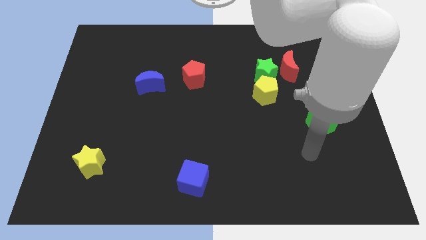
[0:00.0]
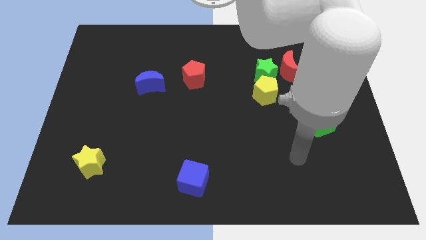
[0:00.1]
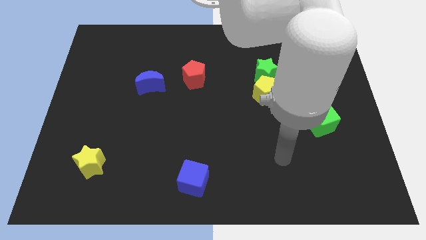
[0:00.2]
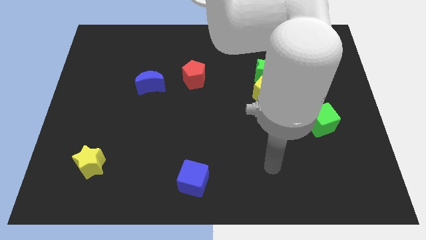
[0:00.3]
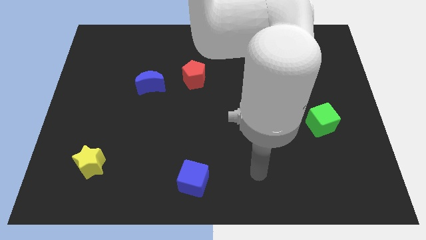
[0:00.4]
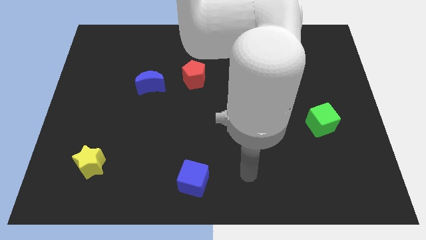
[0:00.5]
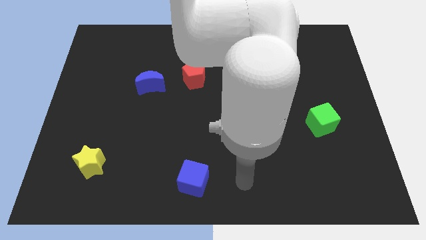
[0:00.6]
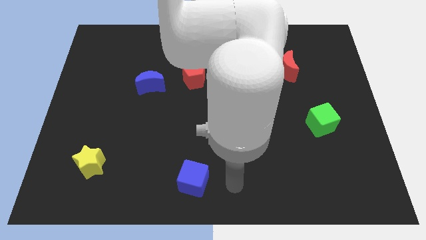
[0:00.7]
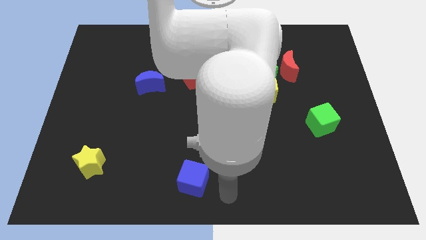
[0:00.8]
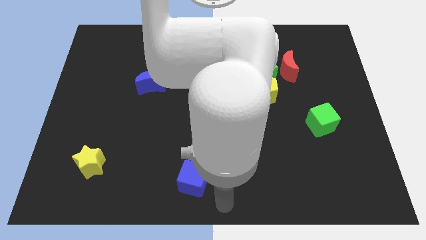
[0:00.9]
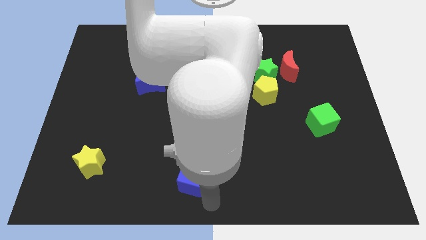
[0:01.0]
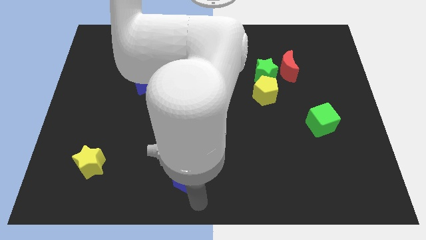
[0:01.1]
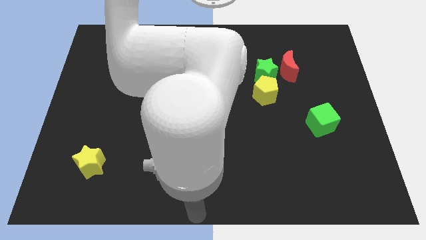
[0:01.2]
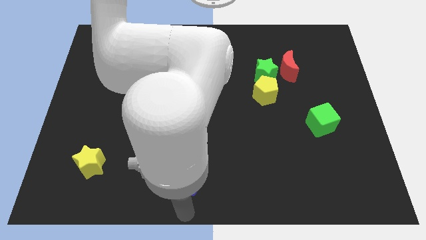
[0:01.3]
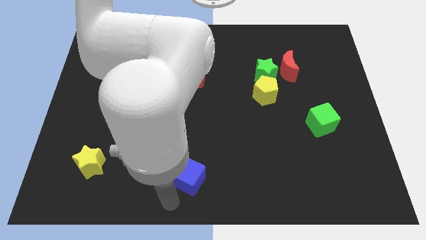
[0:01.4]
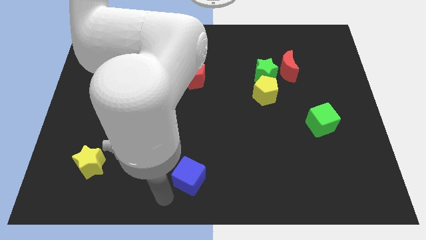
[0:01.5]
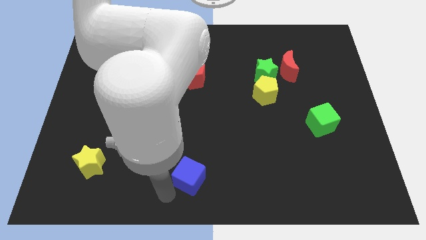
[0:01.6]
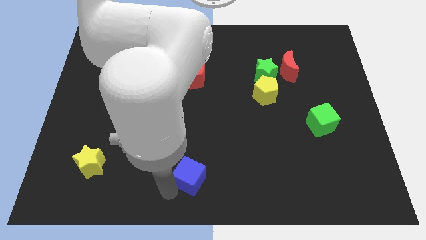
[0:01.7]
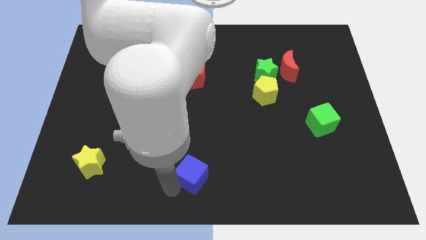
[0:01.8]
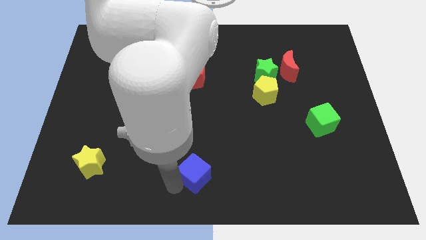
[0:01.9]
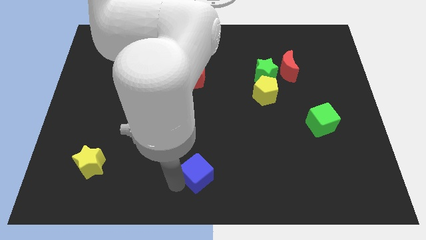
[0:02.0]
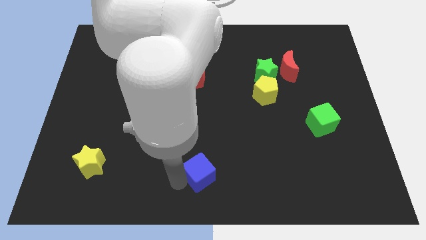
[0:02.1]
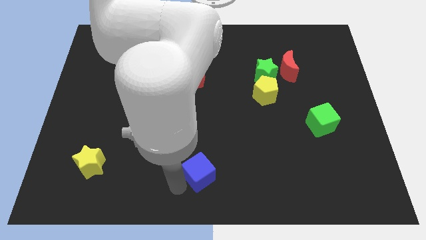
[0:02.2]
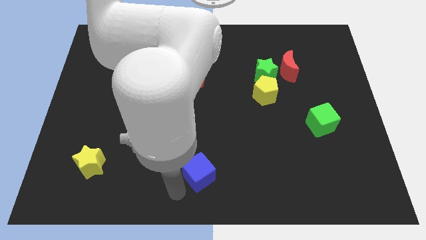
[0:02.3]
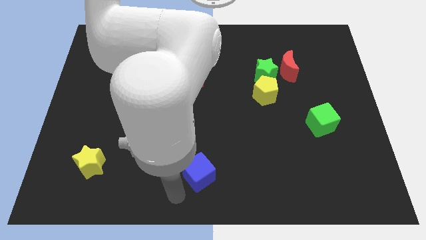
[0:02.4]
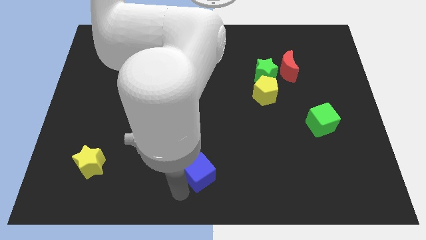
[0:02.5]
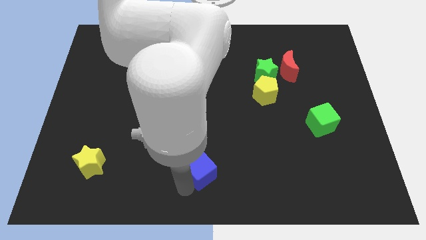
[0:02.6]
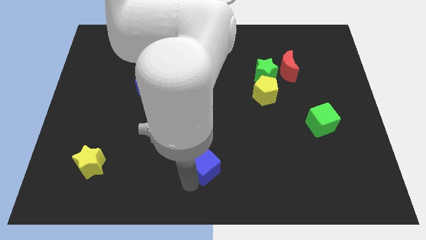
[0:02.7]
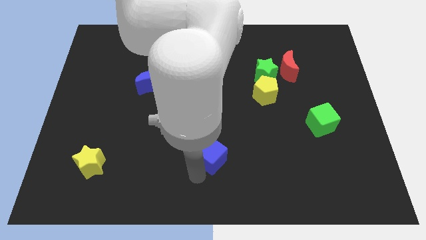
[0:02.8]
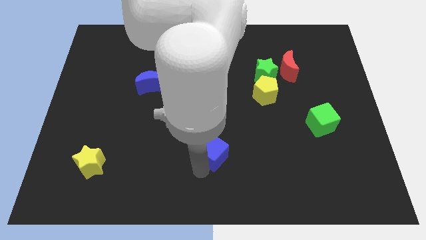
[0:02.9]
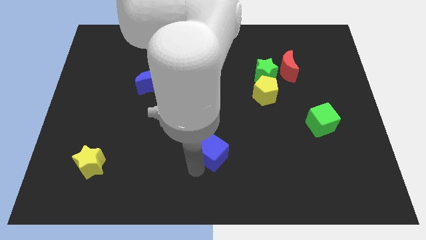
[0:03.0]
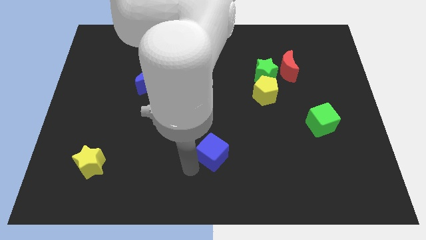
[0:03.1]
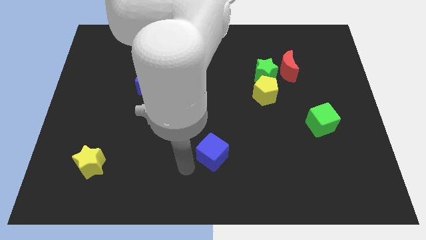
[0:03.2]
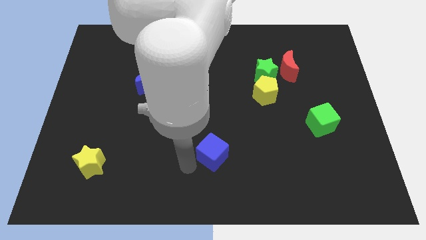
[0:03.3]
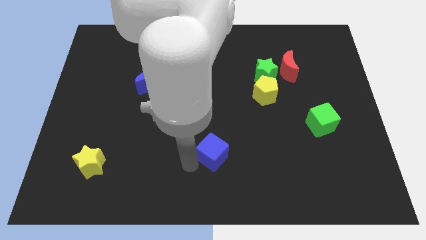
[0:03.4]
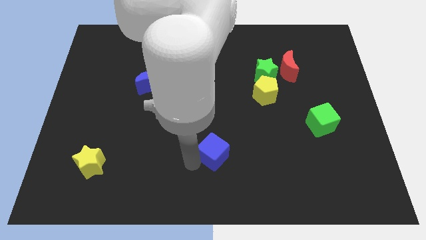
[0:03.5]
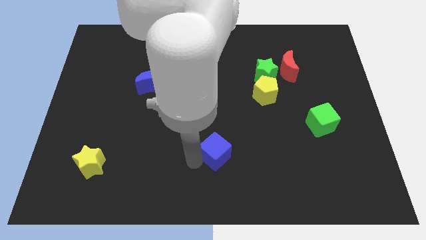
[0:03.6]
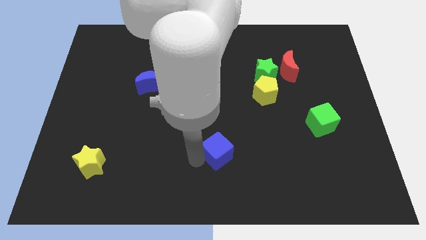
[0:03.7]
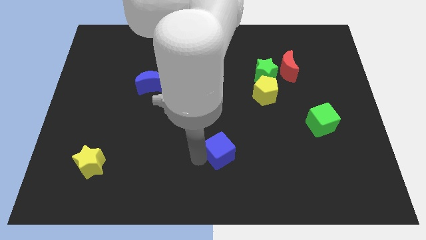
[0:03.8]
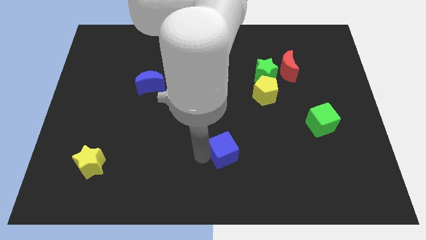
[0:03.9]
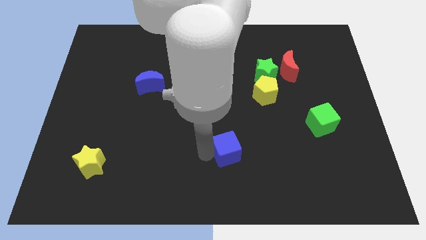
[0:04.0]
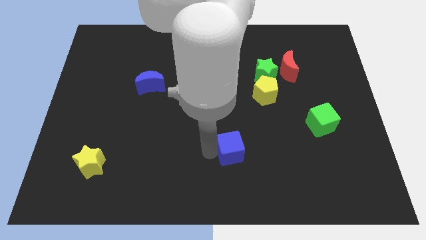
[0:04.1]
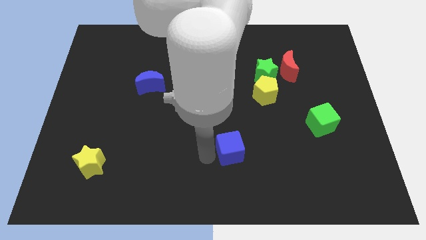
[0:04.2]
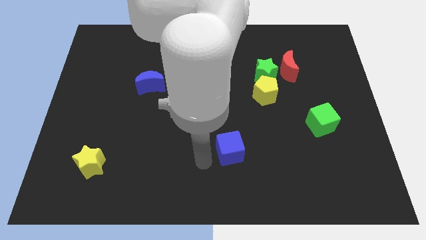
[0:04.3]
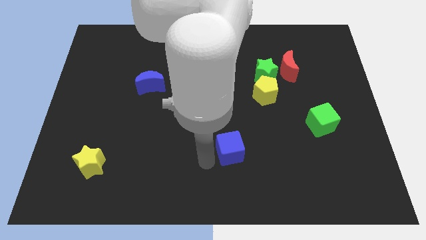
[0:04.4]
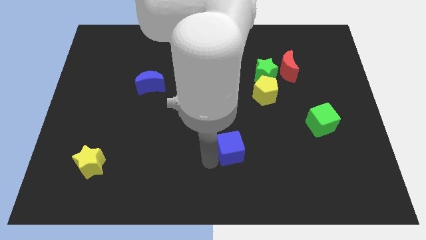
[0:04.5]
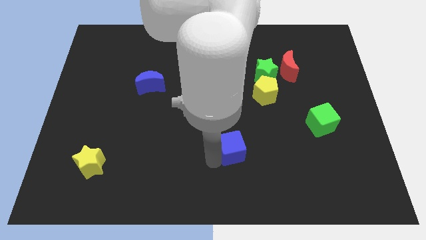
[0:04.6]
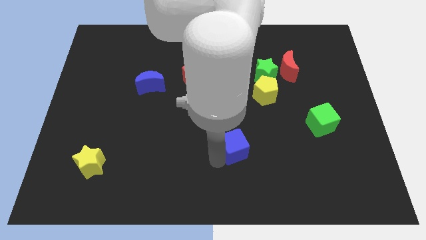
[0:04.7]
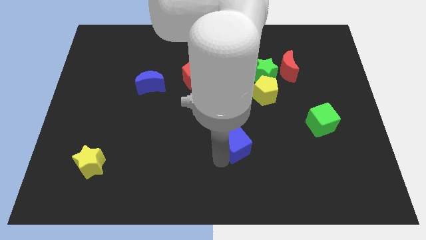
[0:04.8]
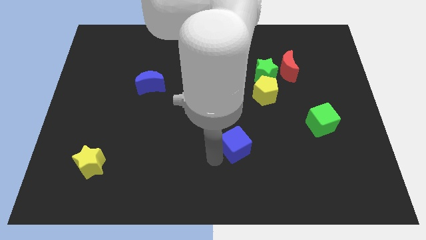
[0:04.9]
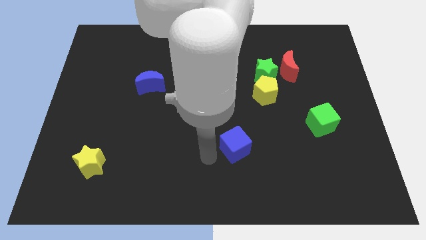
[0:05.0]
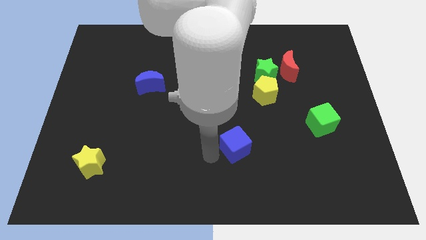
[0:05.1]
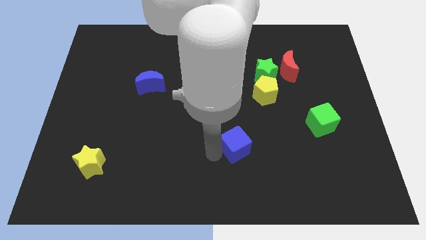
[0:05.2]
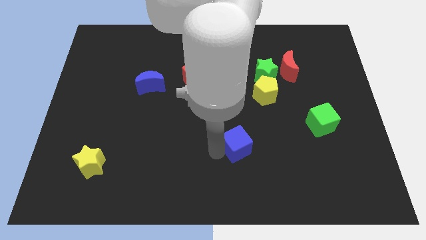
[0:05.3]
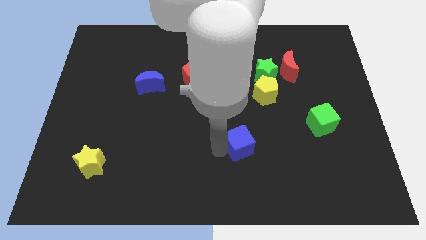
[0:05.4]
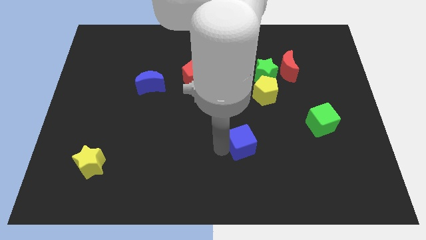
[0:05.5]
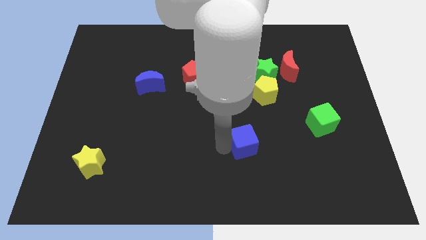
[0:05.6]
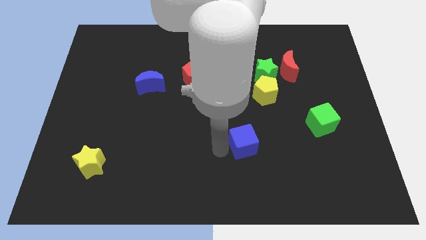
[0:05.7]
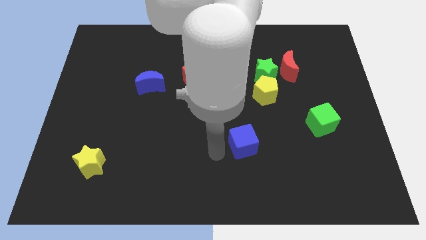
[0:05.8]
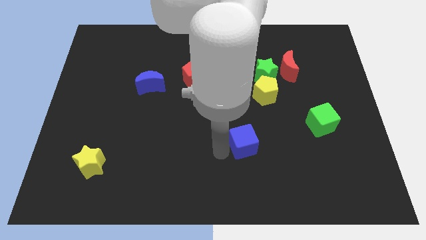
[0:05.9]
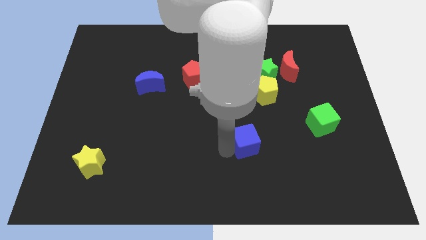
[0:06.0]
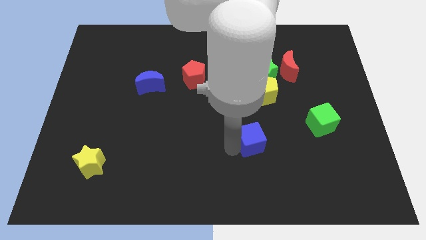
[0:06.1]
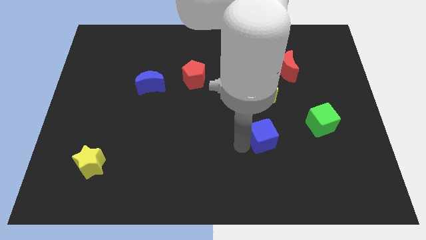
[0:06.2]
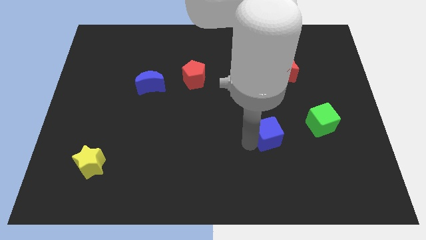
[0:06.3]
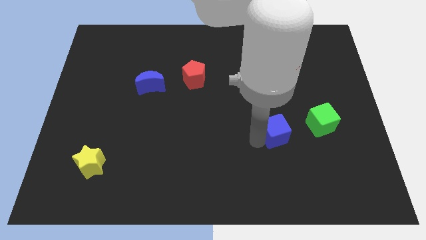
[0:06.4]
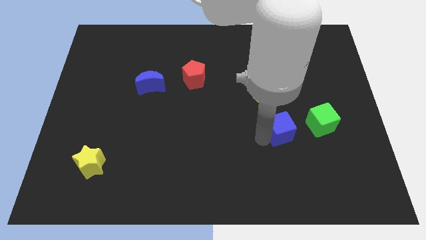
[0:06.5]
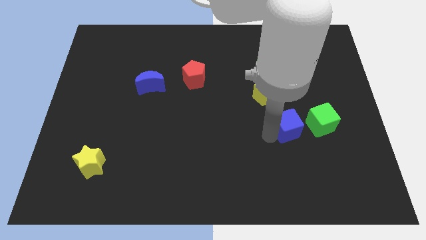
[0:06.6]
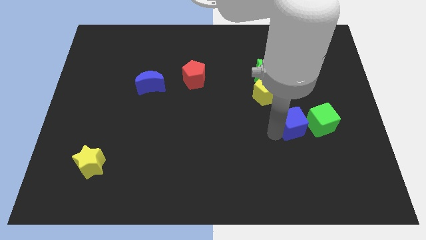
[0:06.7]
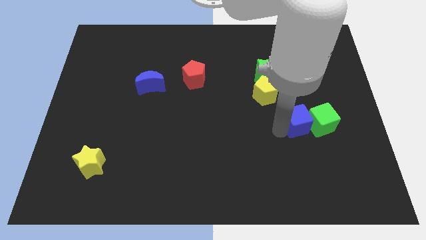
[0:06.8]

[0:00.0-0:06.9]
move the blue cube towards the green cube
